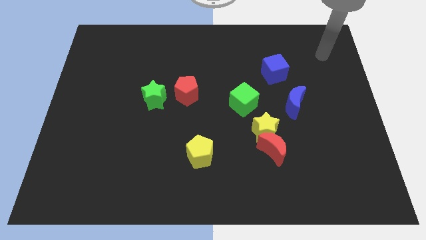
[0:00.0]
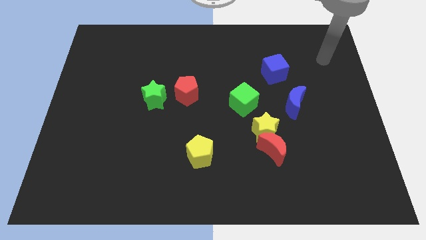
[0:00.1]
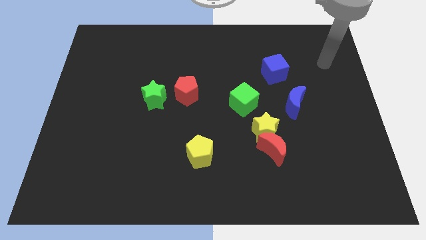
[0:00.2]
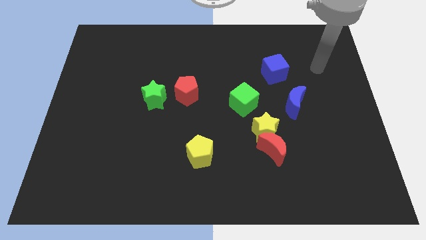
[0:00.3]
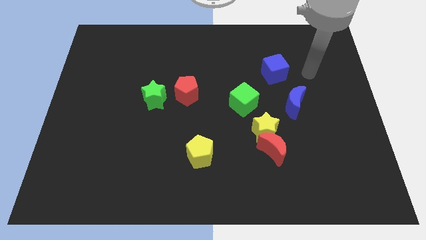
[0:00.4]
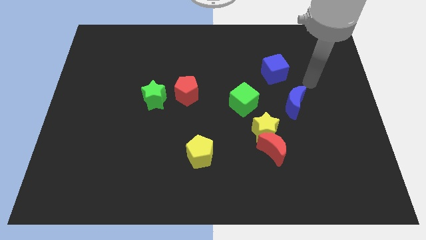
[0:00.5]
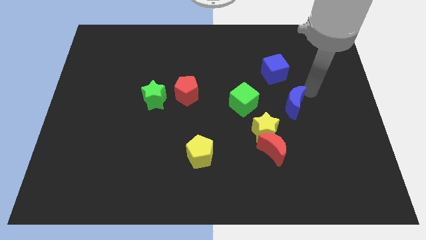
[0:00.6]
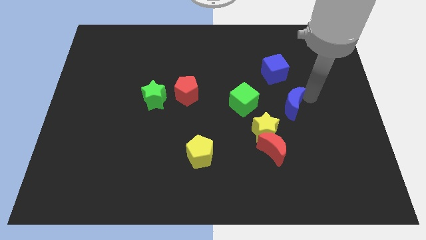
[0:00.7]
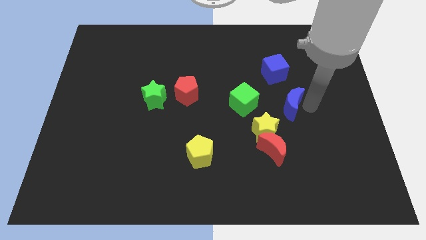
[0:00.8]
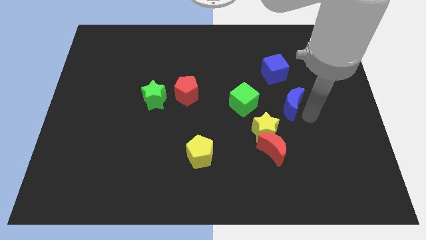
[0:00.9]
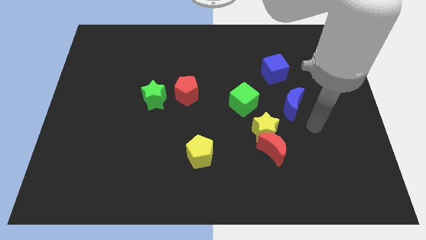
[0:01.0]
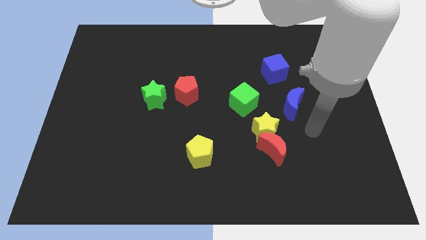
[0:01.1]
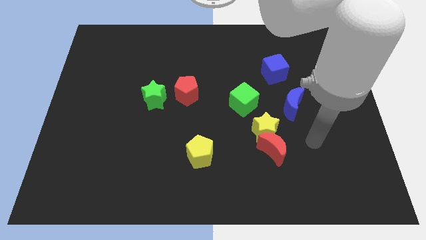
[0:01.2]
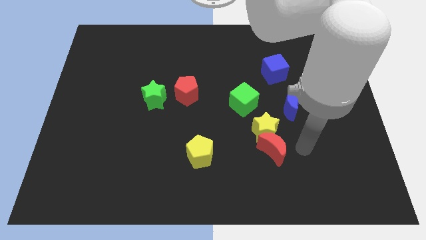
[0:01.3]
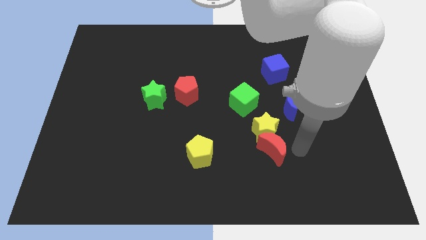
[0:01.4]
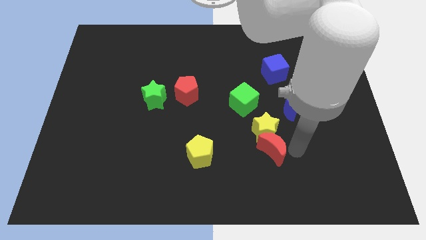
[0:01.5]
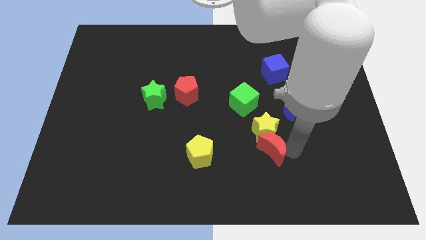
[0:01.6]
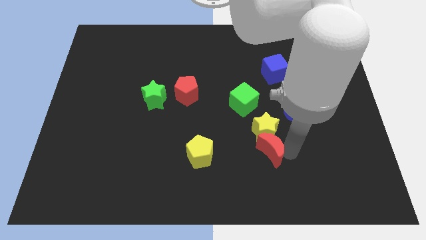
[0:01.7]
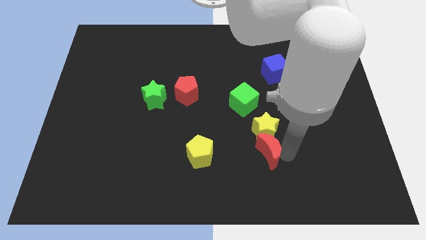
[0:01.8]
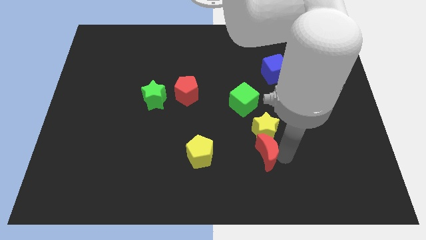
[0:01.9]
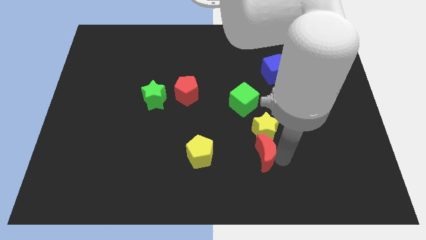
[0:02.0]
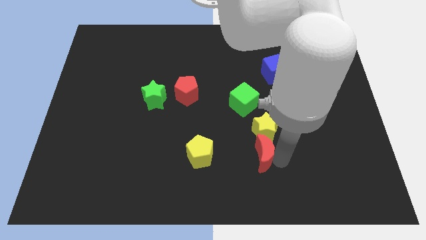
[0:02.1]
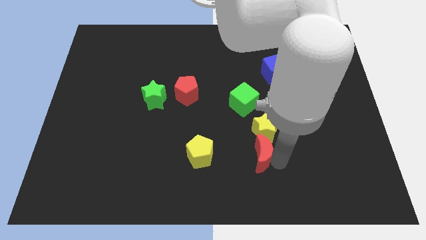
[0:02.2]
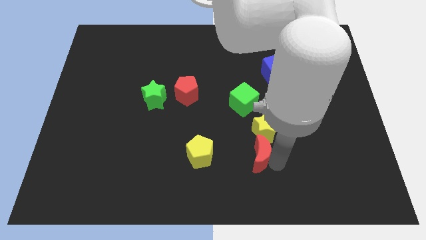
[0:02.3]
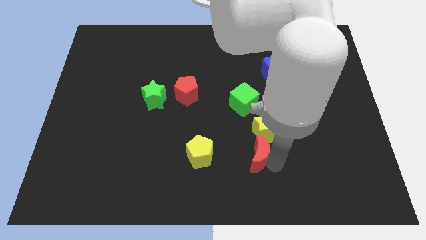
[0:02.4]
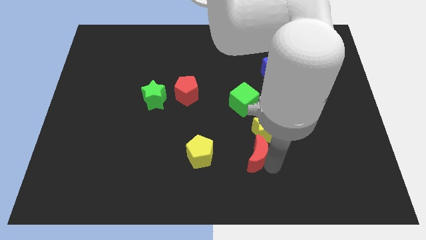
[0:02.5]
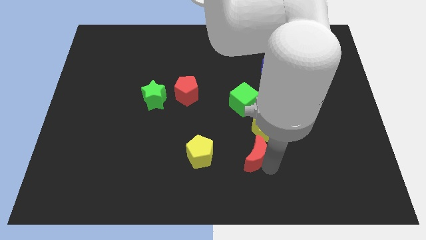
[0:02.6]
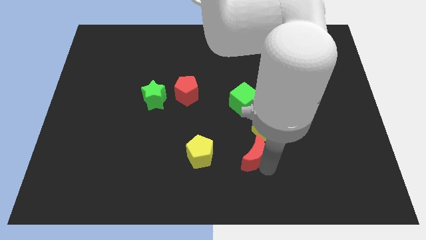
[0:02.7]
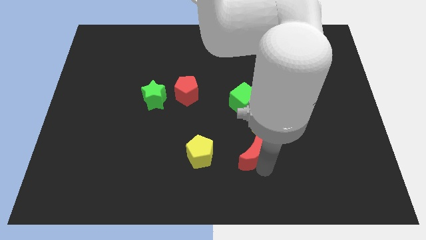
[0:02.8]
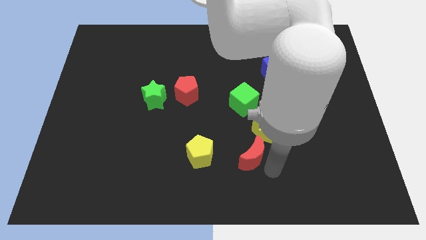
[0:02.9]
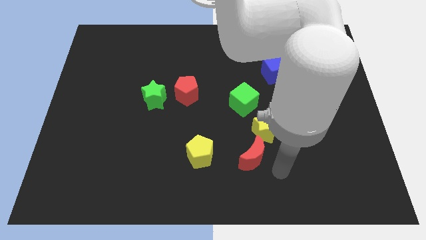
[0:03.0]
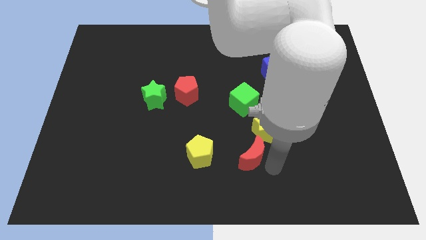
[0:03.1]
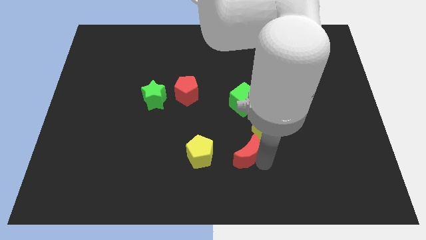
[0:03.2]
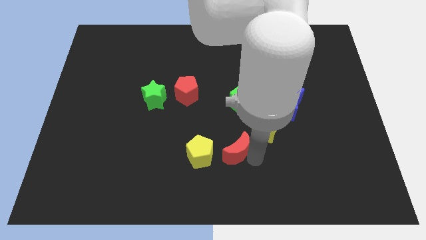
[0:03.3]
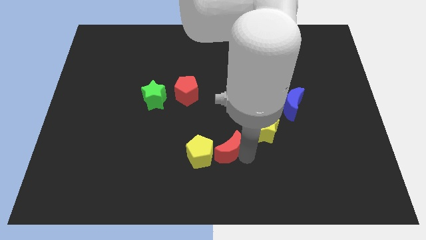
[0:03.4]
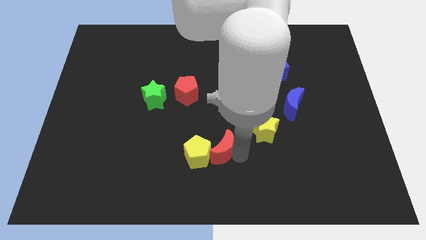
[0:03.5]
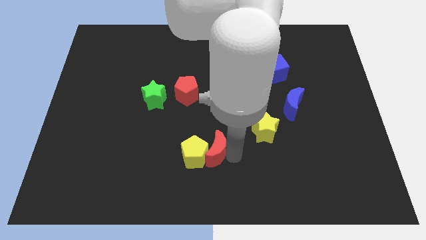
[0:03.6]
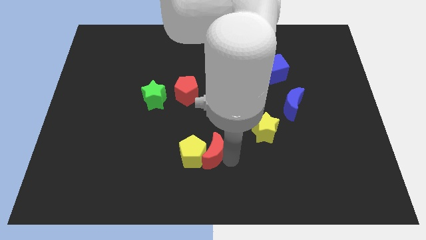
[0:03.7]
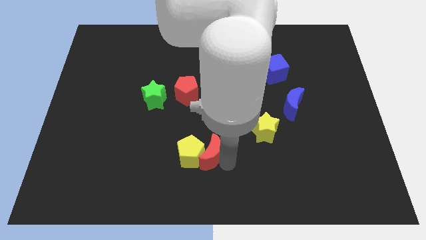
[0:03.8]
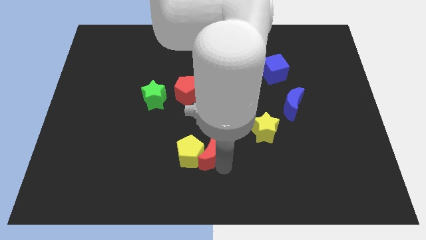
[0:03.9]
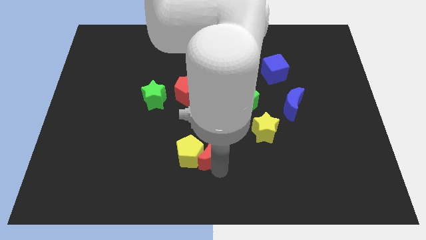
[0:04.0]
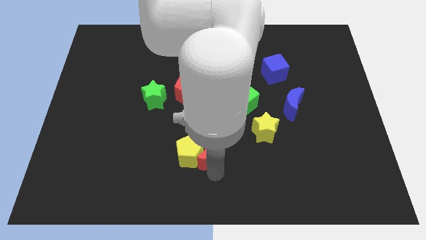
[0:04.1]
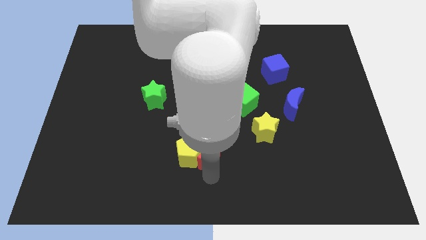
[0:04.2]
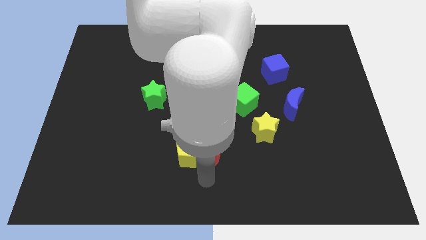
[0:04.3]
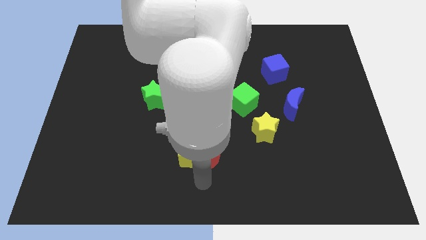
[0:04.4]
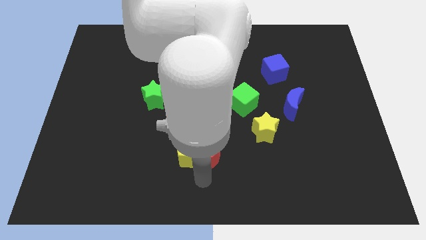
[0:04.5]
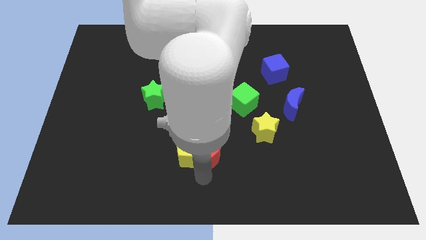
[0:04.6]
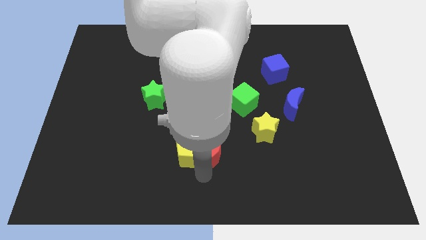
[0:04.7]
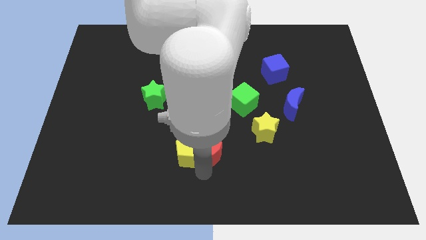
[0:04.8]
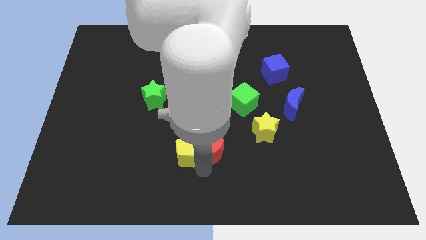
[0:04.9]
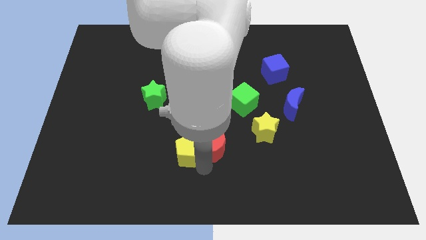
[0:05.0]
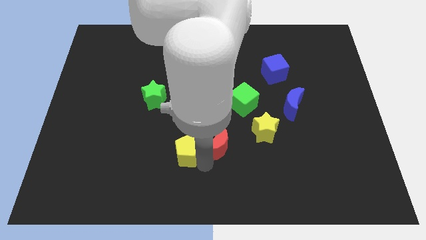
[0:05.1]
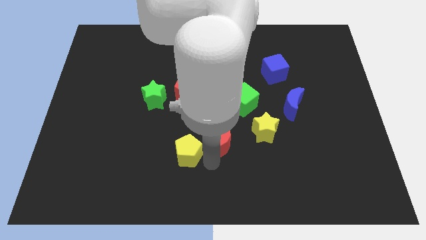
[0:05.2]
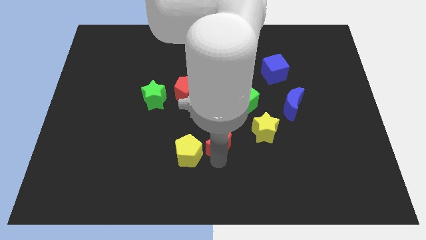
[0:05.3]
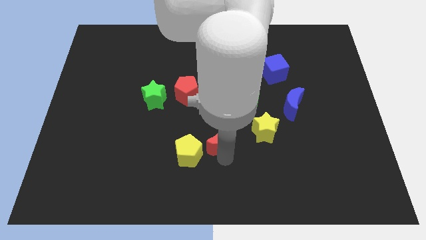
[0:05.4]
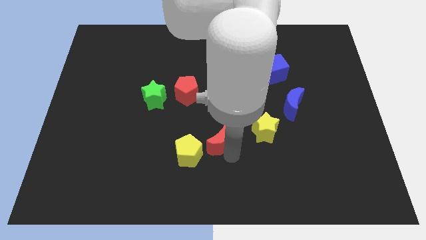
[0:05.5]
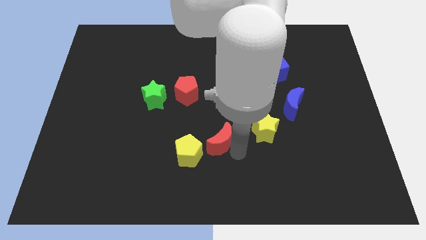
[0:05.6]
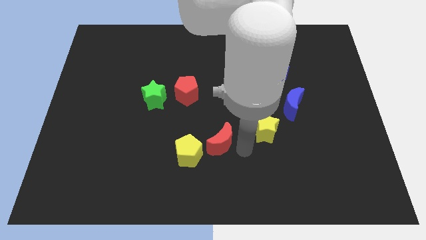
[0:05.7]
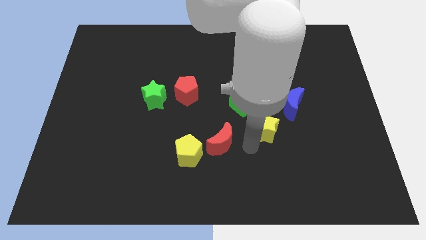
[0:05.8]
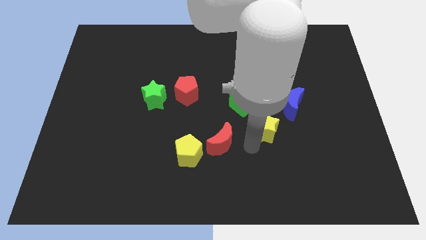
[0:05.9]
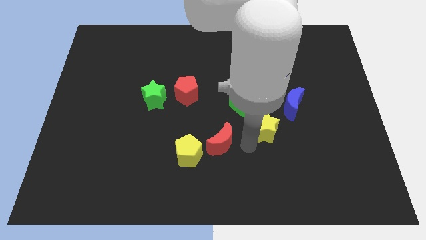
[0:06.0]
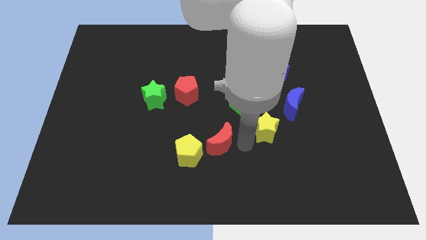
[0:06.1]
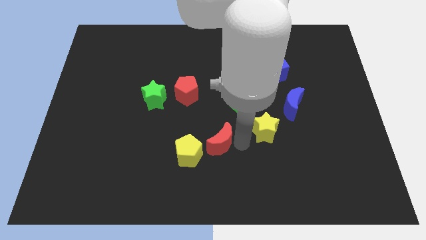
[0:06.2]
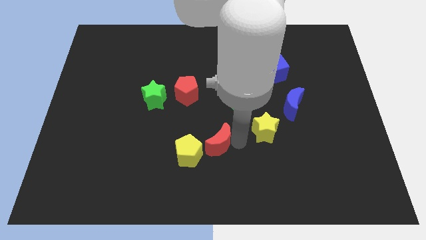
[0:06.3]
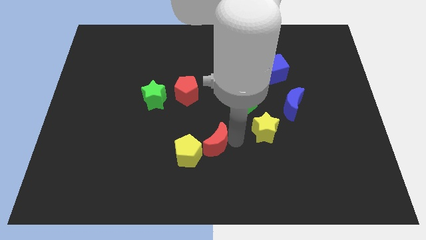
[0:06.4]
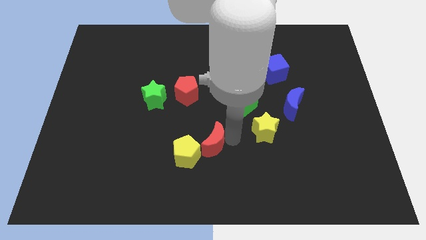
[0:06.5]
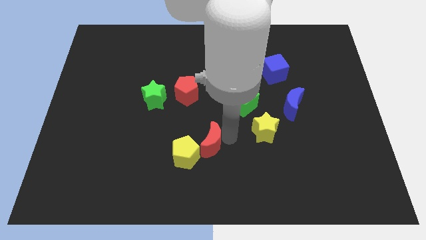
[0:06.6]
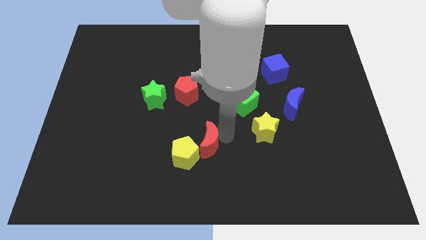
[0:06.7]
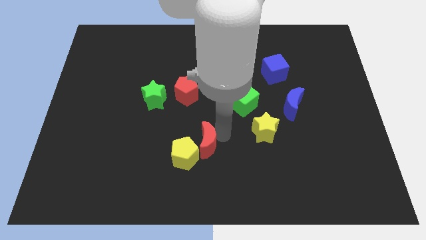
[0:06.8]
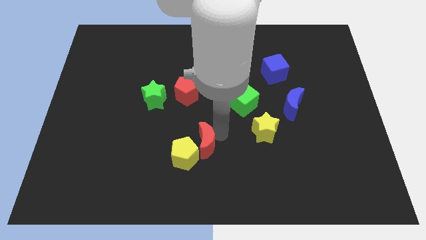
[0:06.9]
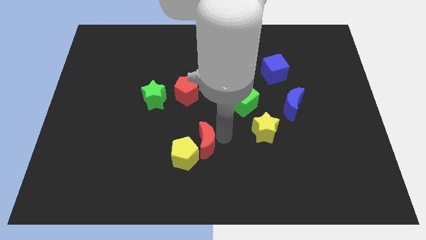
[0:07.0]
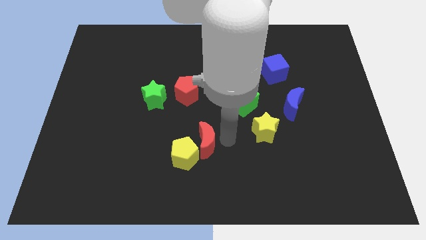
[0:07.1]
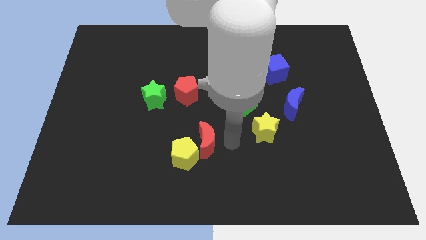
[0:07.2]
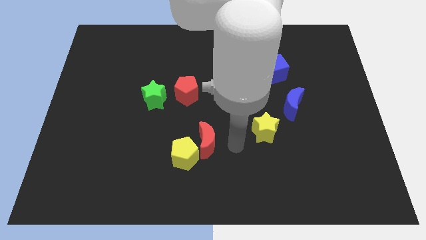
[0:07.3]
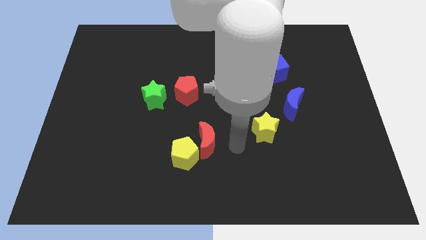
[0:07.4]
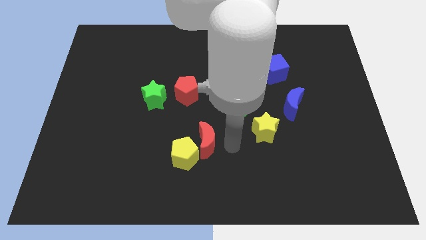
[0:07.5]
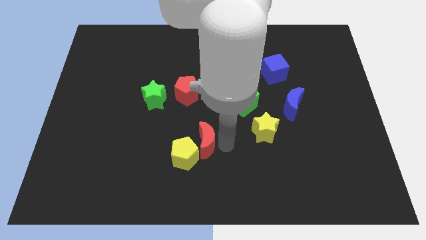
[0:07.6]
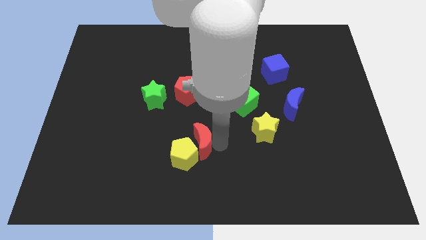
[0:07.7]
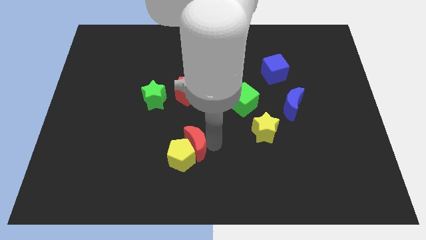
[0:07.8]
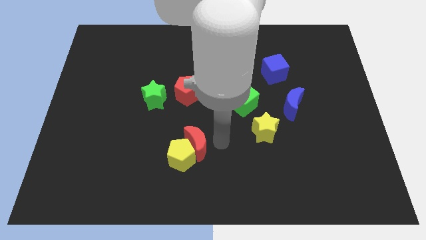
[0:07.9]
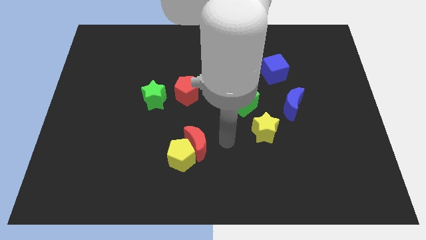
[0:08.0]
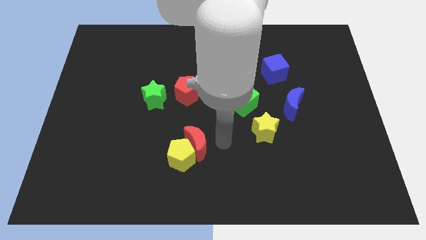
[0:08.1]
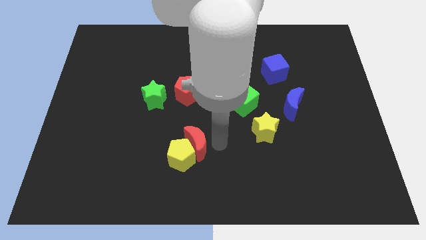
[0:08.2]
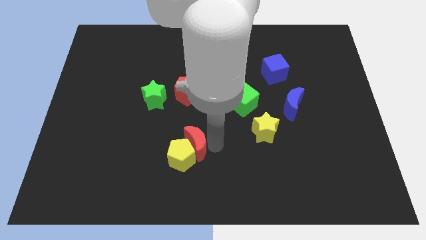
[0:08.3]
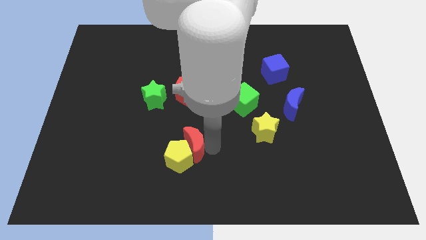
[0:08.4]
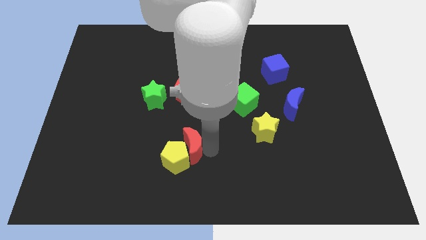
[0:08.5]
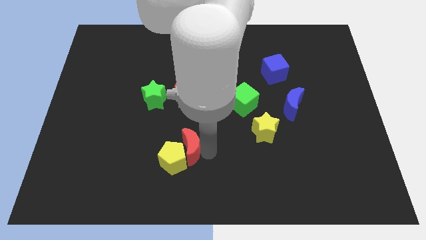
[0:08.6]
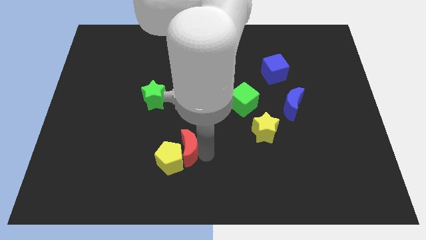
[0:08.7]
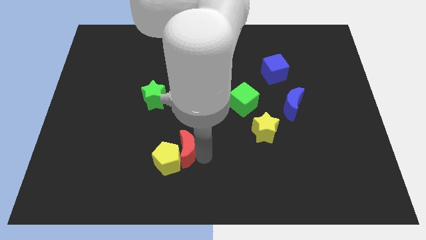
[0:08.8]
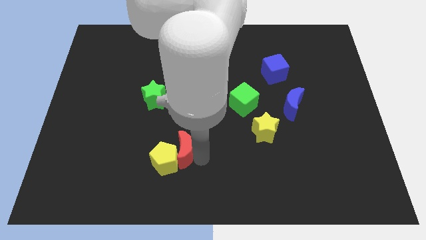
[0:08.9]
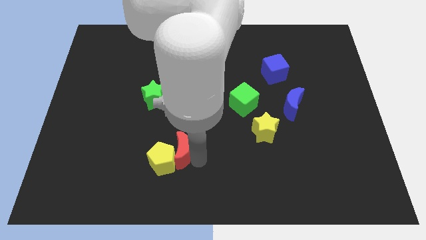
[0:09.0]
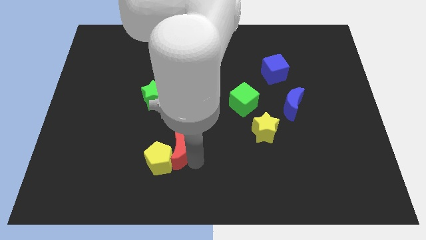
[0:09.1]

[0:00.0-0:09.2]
slide the red moon to the left
